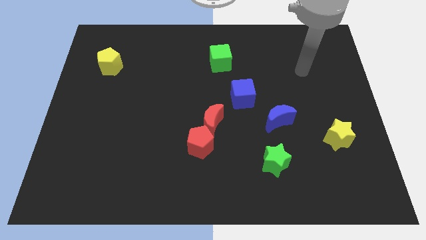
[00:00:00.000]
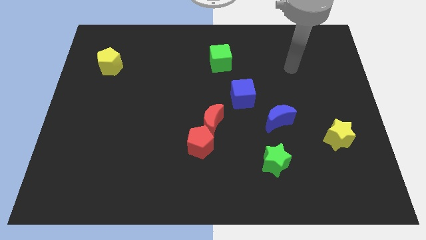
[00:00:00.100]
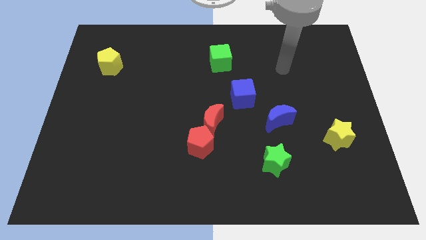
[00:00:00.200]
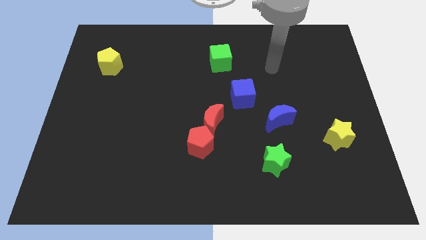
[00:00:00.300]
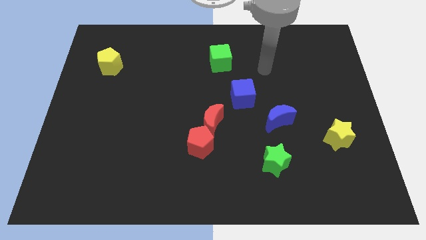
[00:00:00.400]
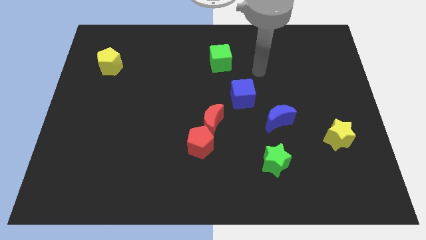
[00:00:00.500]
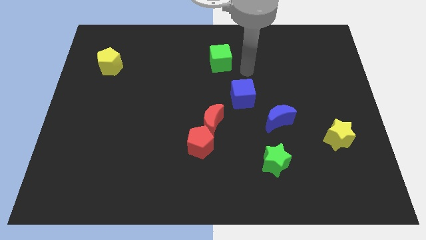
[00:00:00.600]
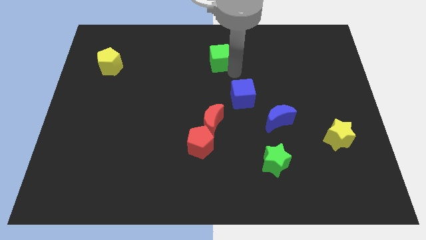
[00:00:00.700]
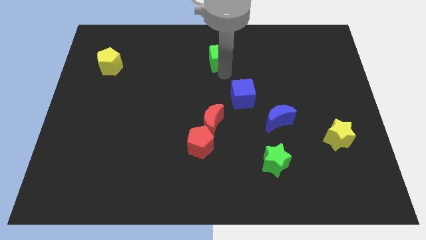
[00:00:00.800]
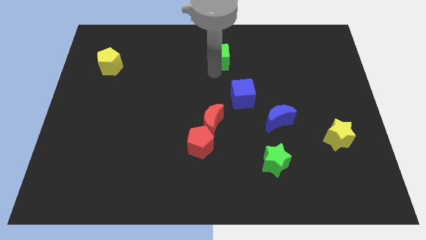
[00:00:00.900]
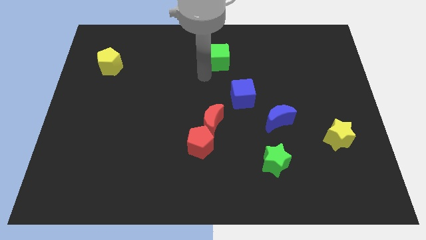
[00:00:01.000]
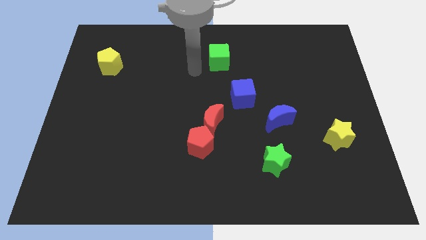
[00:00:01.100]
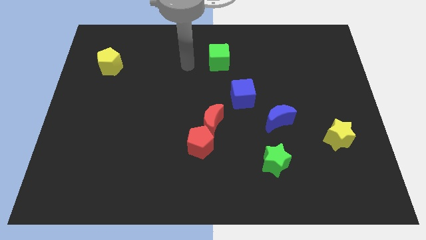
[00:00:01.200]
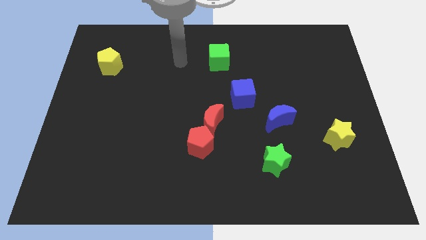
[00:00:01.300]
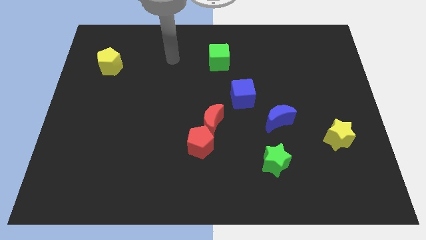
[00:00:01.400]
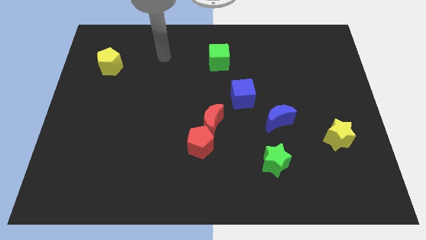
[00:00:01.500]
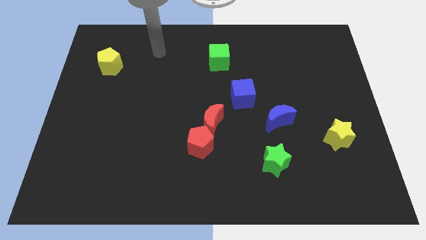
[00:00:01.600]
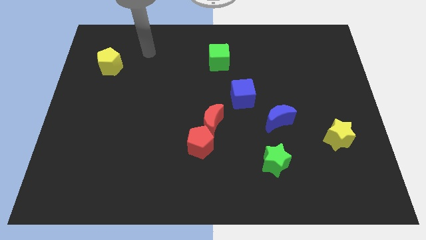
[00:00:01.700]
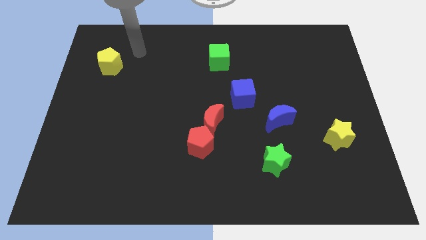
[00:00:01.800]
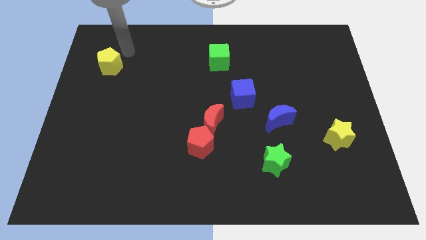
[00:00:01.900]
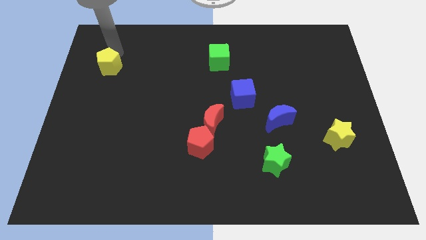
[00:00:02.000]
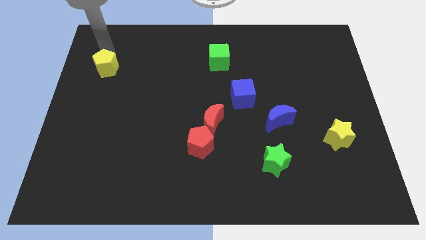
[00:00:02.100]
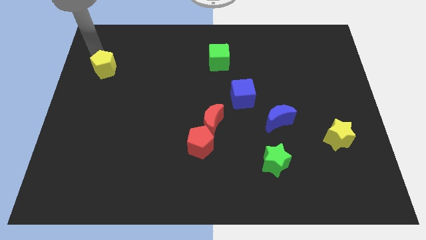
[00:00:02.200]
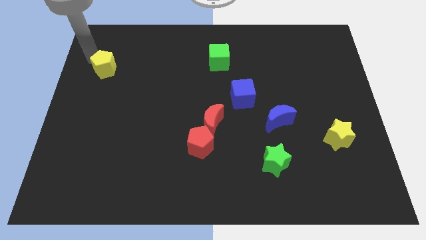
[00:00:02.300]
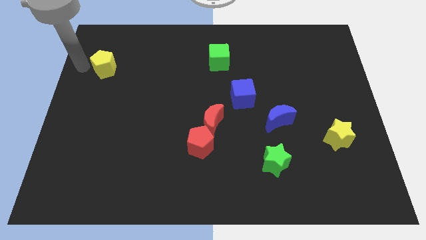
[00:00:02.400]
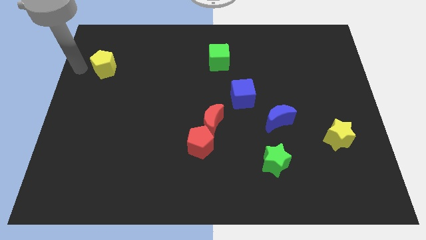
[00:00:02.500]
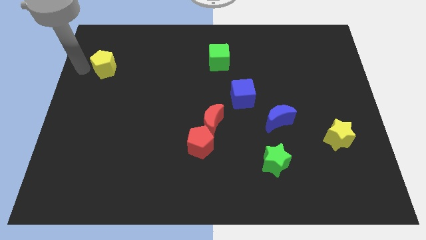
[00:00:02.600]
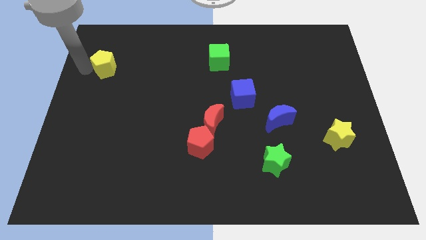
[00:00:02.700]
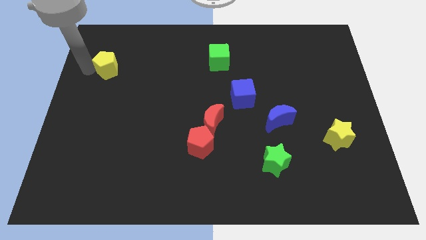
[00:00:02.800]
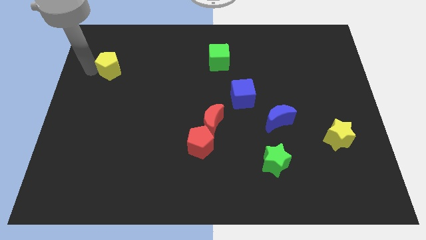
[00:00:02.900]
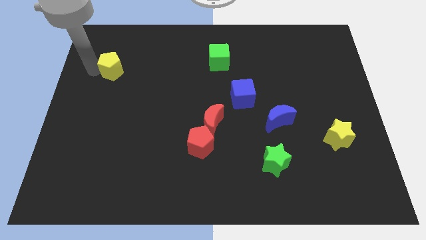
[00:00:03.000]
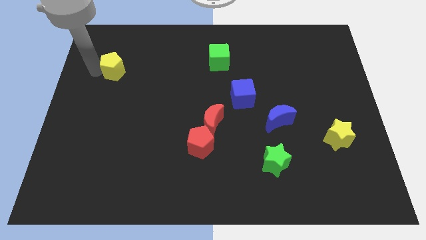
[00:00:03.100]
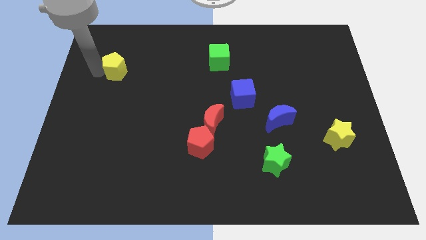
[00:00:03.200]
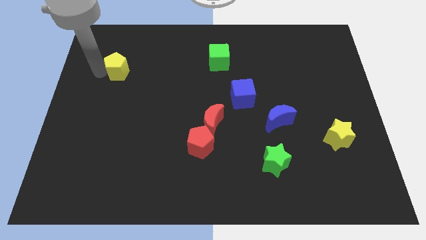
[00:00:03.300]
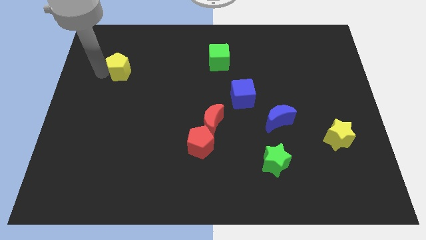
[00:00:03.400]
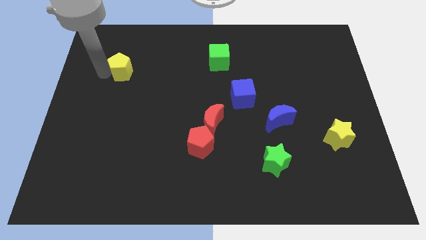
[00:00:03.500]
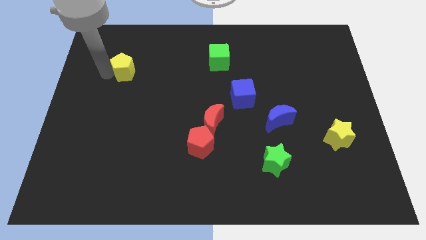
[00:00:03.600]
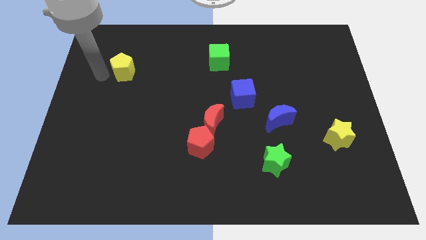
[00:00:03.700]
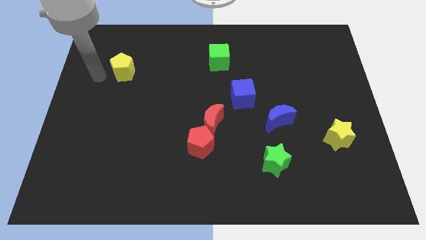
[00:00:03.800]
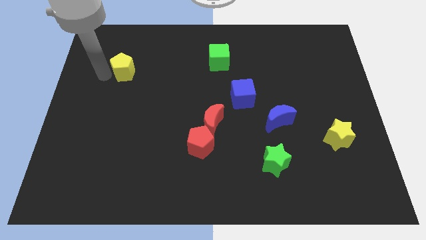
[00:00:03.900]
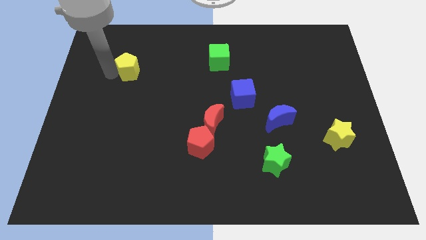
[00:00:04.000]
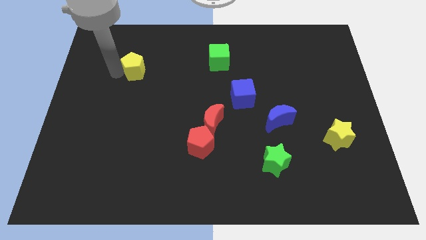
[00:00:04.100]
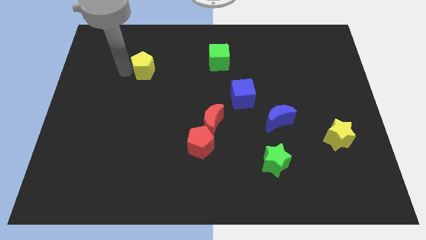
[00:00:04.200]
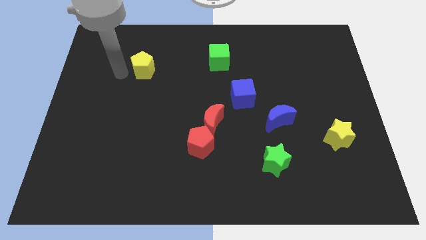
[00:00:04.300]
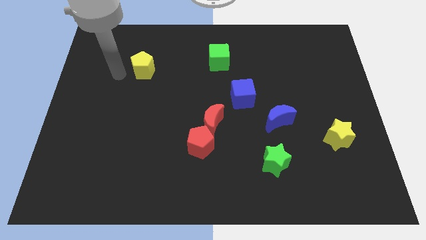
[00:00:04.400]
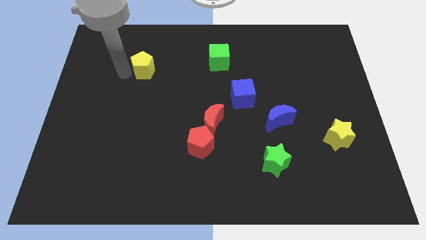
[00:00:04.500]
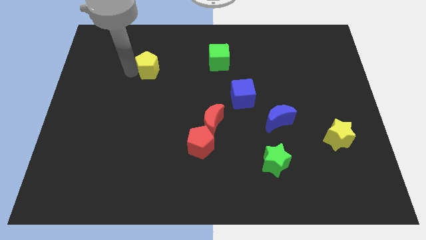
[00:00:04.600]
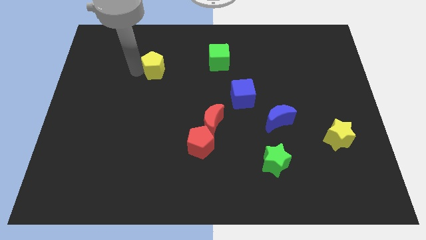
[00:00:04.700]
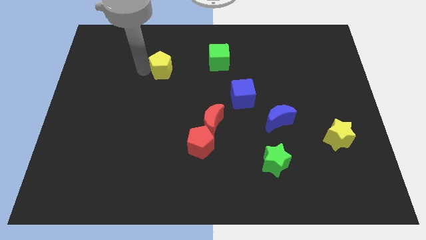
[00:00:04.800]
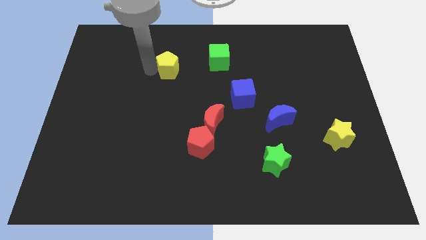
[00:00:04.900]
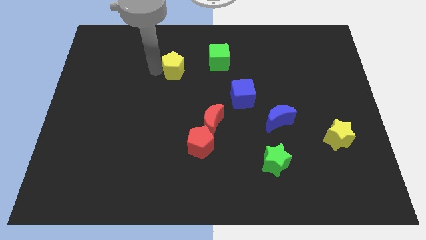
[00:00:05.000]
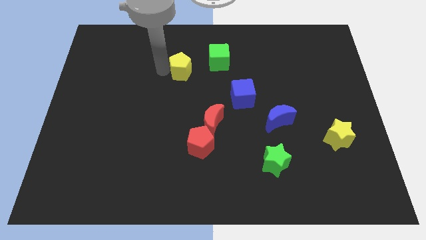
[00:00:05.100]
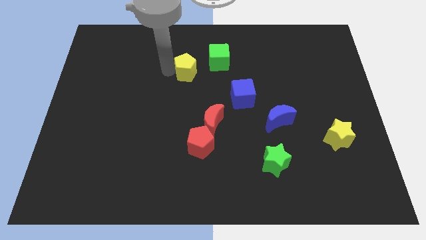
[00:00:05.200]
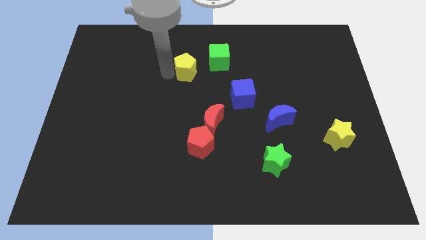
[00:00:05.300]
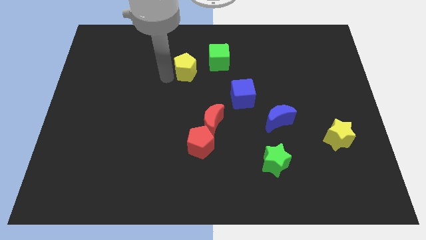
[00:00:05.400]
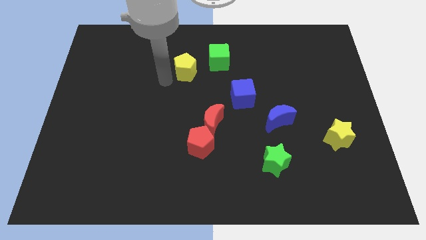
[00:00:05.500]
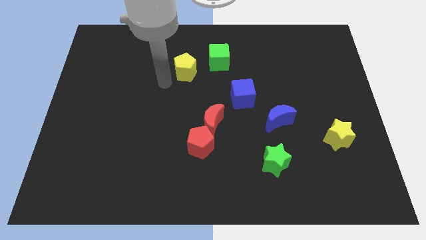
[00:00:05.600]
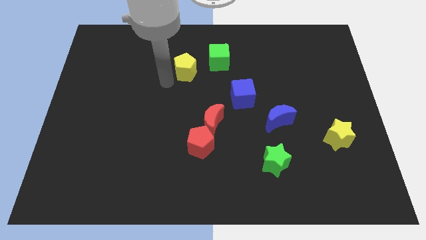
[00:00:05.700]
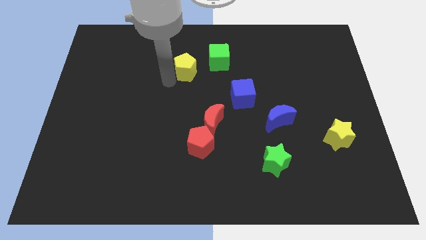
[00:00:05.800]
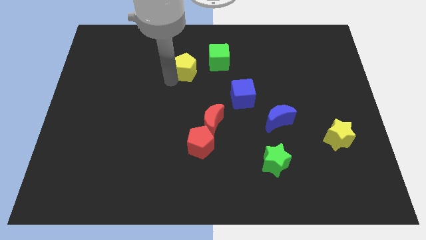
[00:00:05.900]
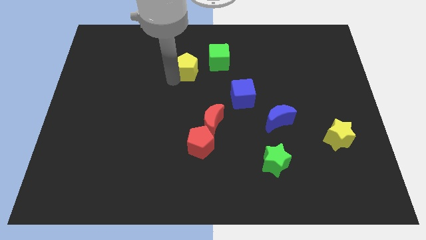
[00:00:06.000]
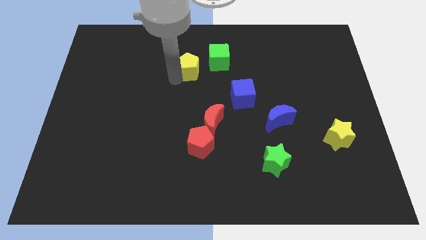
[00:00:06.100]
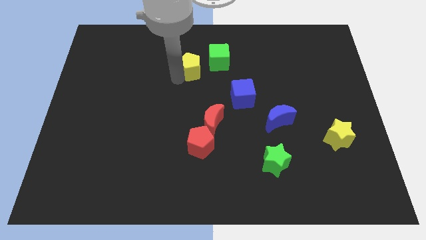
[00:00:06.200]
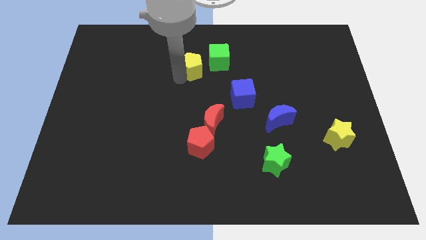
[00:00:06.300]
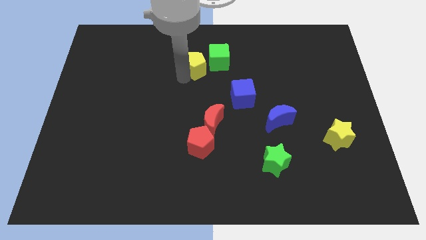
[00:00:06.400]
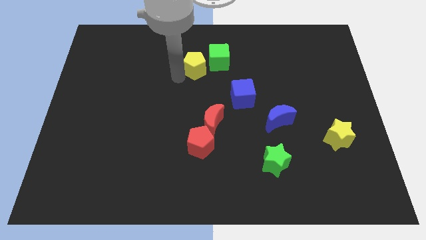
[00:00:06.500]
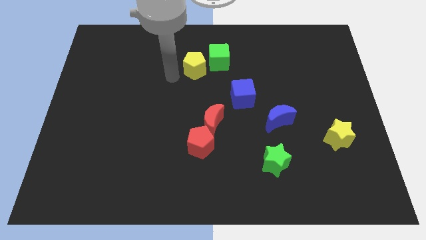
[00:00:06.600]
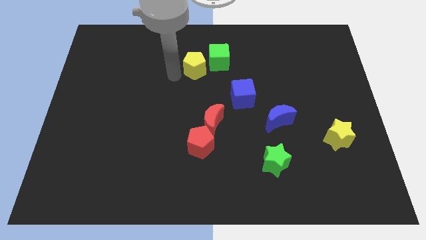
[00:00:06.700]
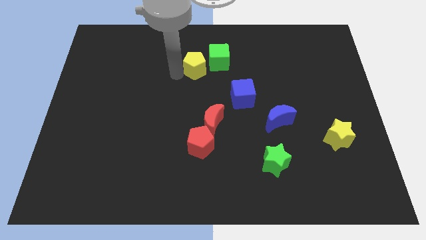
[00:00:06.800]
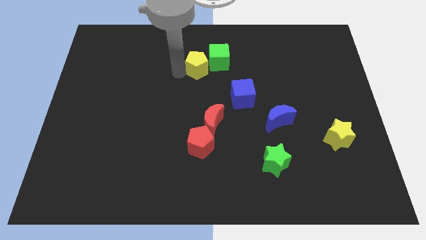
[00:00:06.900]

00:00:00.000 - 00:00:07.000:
push the yellow pentagon next to the green cube
